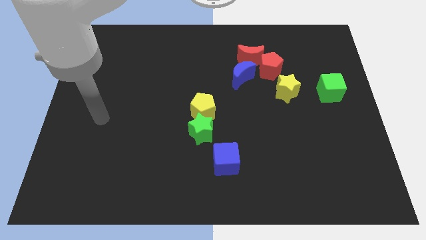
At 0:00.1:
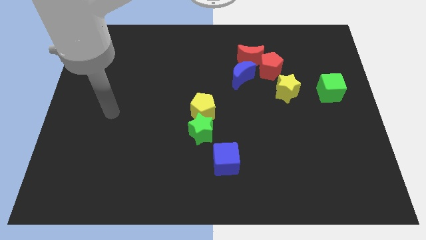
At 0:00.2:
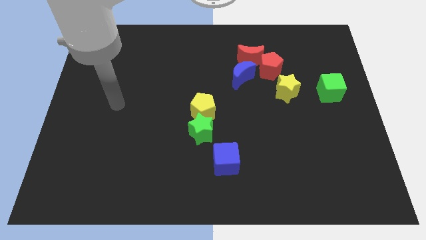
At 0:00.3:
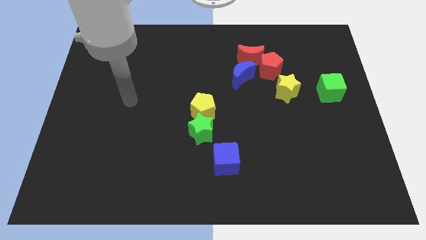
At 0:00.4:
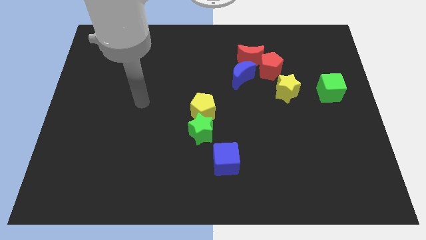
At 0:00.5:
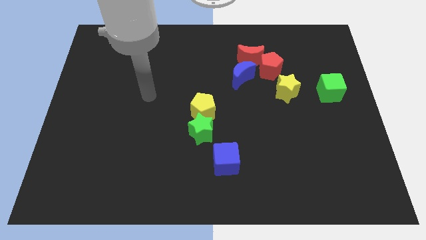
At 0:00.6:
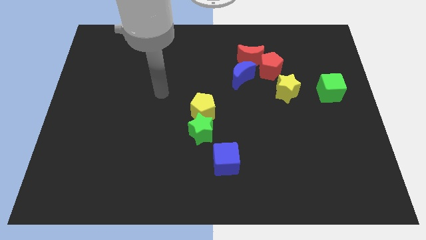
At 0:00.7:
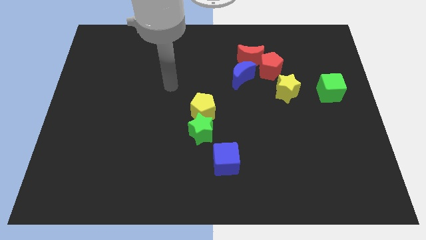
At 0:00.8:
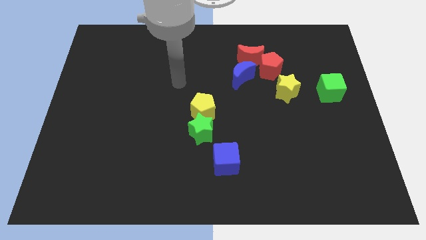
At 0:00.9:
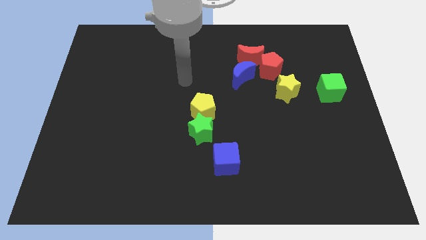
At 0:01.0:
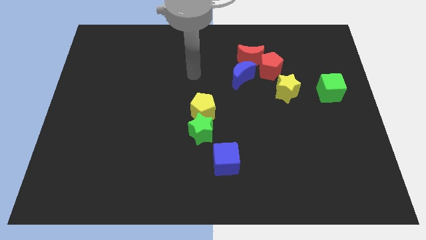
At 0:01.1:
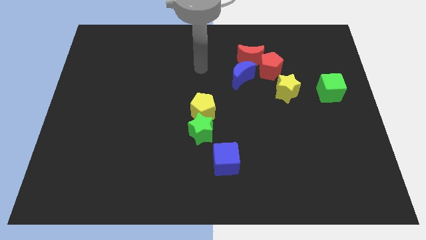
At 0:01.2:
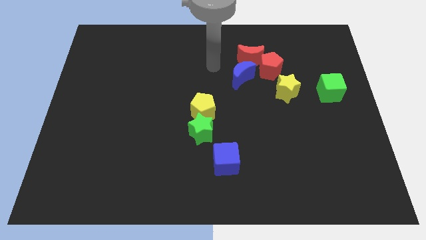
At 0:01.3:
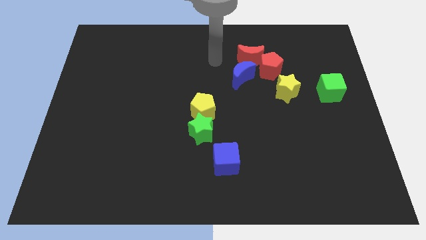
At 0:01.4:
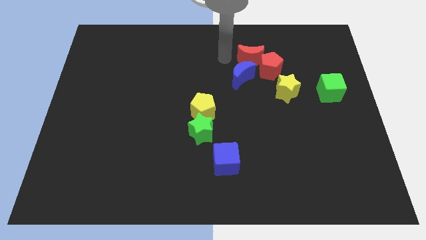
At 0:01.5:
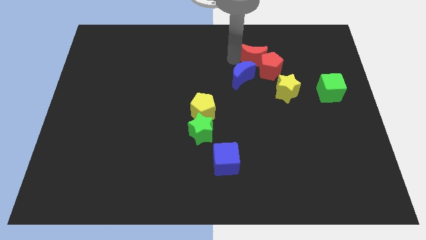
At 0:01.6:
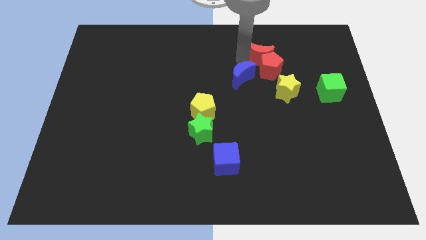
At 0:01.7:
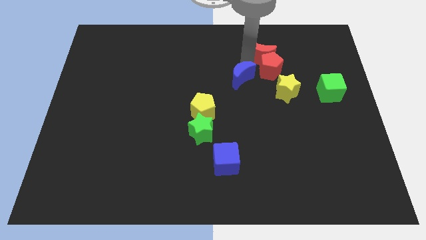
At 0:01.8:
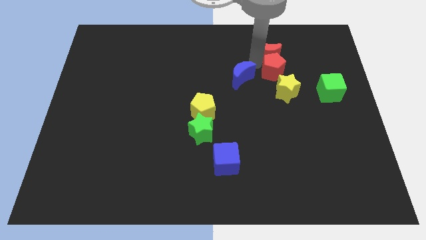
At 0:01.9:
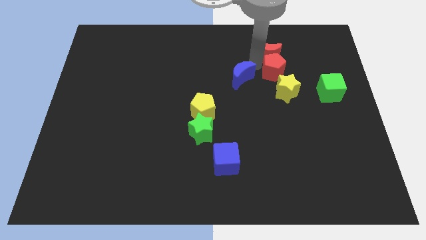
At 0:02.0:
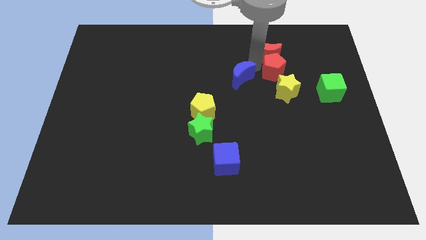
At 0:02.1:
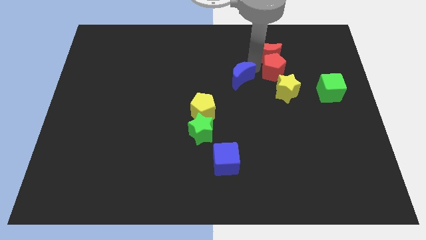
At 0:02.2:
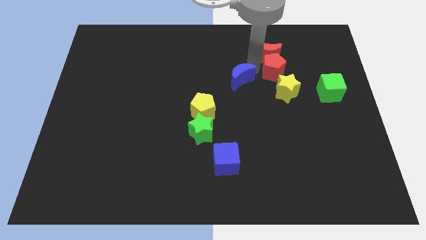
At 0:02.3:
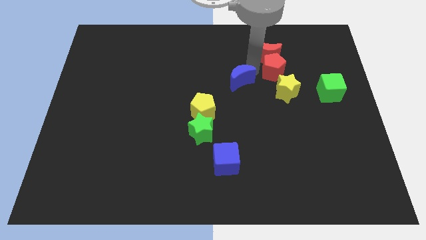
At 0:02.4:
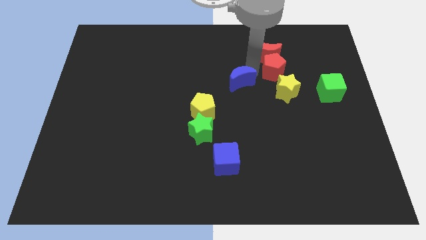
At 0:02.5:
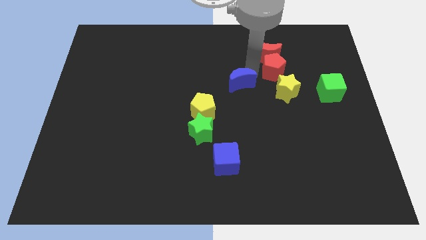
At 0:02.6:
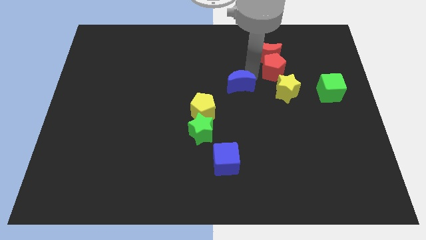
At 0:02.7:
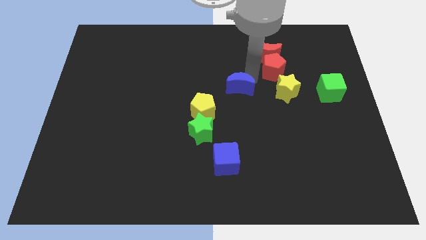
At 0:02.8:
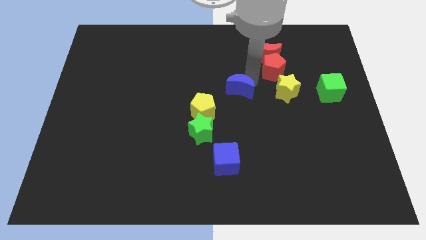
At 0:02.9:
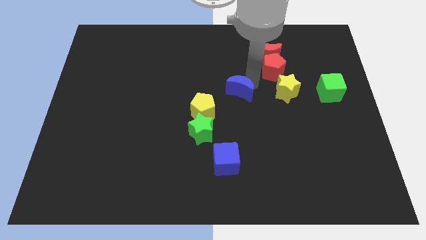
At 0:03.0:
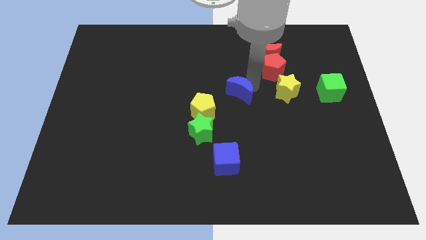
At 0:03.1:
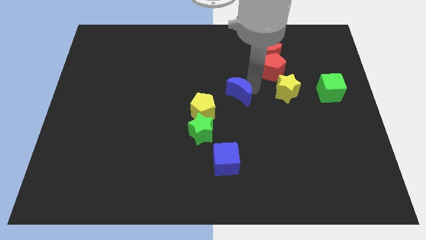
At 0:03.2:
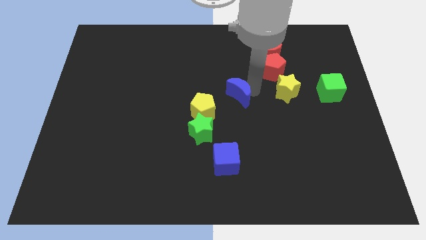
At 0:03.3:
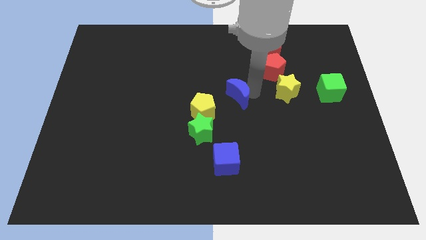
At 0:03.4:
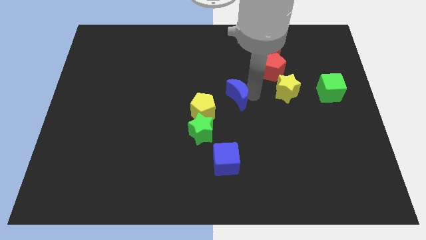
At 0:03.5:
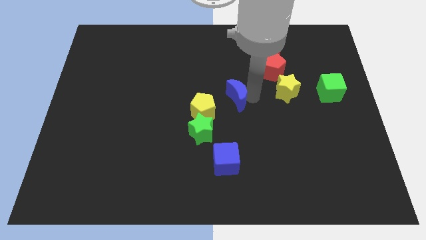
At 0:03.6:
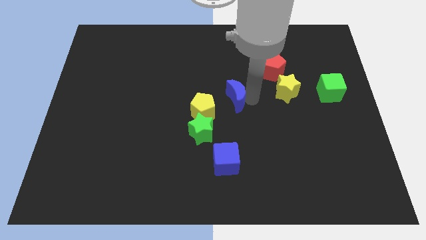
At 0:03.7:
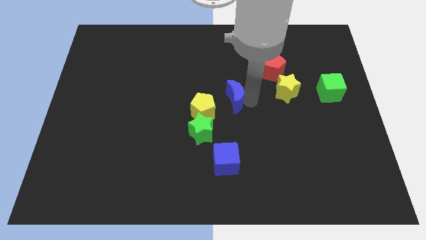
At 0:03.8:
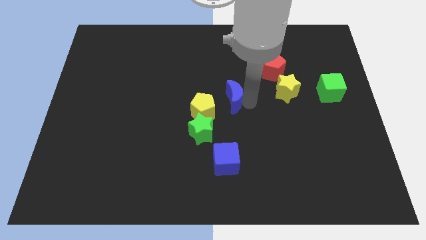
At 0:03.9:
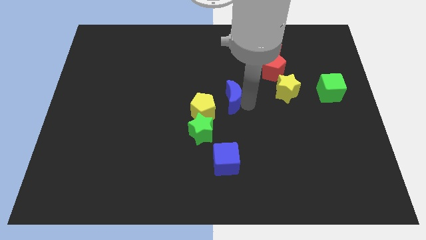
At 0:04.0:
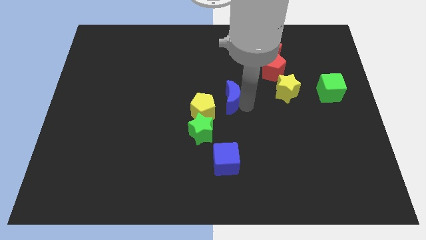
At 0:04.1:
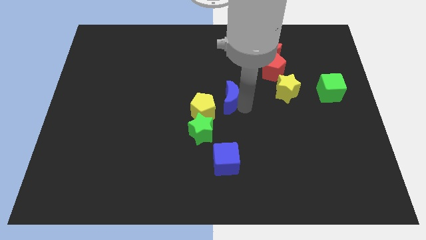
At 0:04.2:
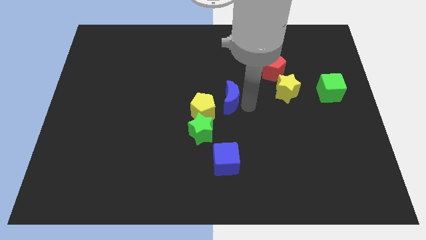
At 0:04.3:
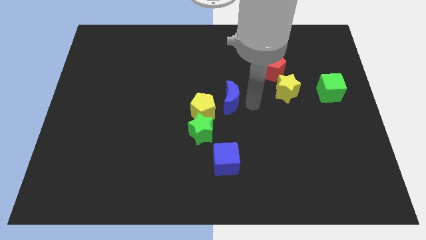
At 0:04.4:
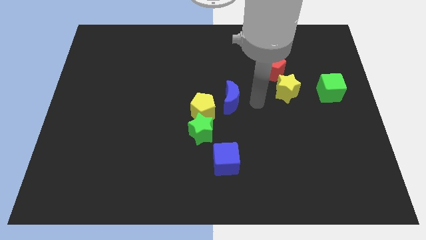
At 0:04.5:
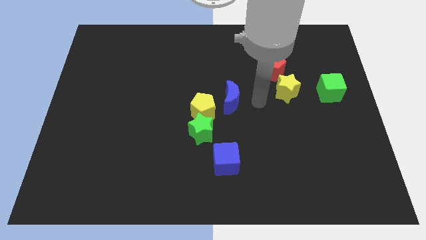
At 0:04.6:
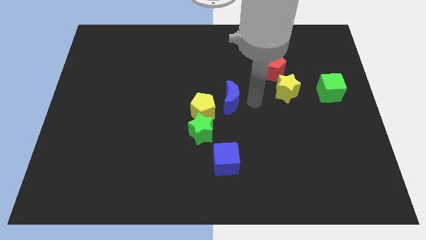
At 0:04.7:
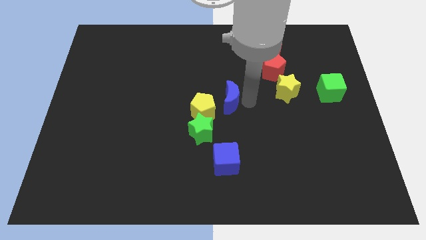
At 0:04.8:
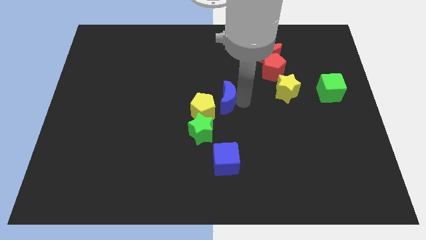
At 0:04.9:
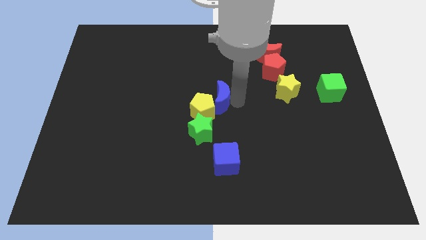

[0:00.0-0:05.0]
move the blue moon next to the yellow pentagon

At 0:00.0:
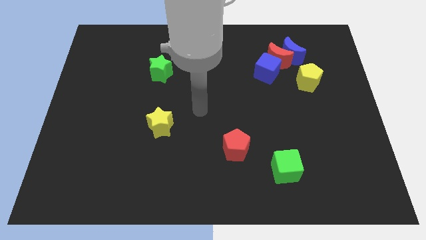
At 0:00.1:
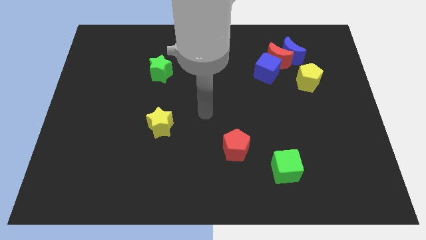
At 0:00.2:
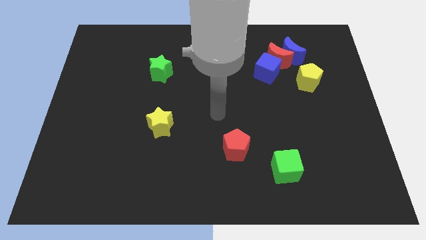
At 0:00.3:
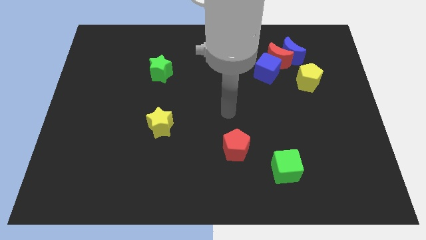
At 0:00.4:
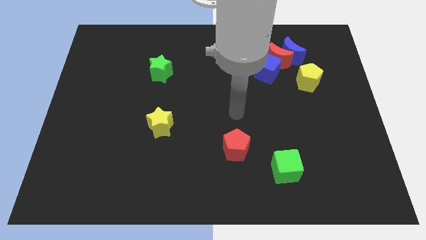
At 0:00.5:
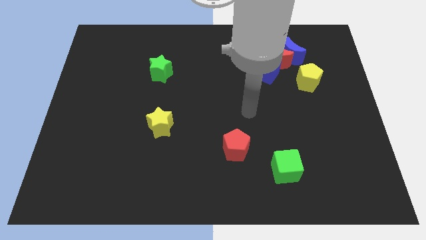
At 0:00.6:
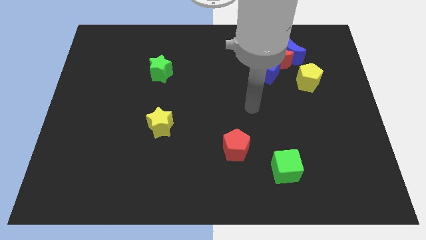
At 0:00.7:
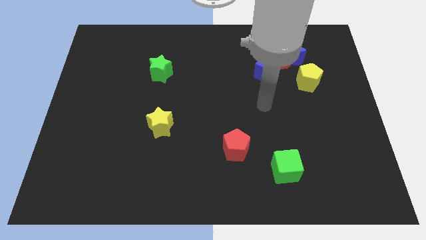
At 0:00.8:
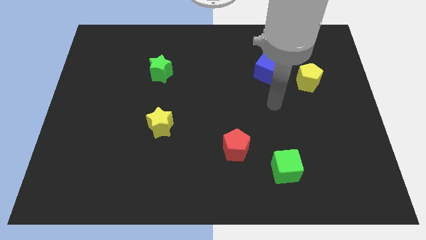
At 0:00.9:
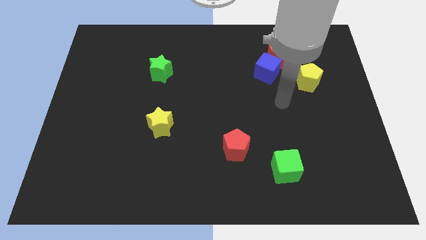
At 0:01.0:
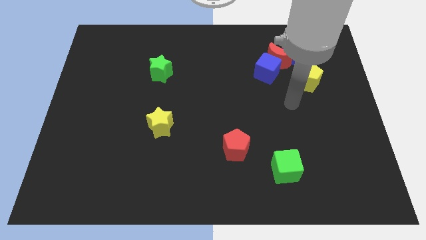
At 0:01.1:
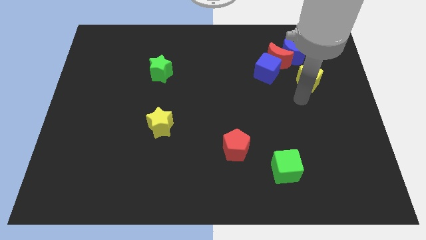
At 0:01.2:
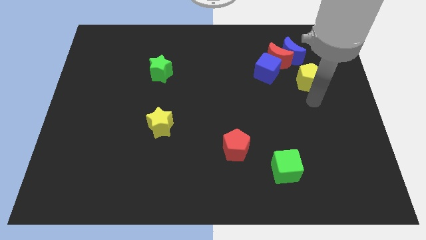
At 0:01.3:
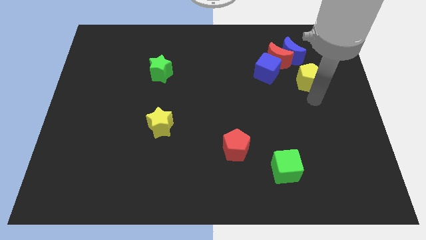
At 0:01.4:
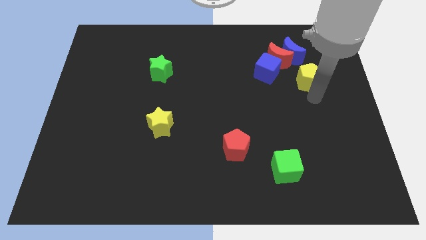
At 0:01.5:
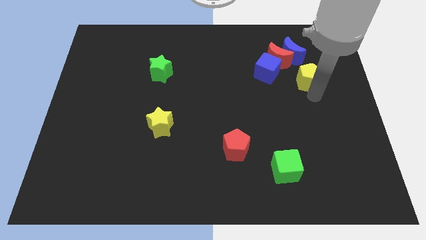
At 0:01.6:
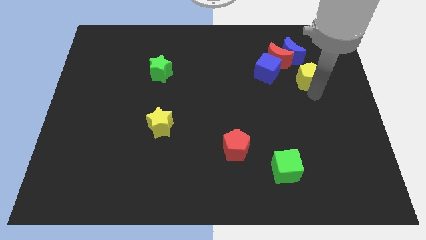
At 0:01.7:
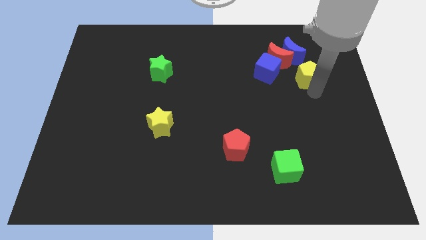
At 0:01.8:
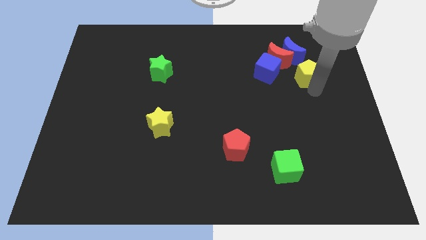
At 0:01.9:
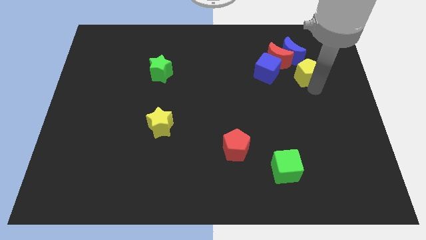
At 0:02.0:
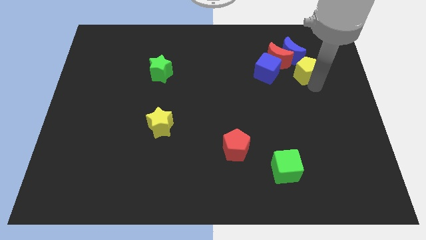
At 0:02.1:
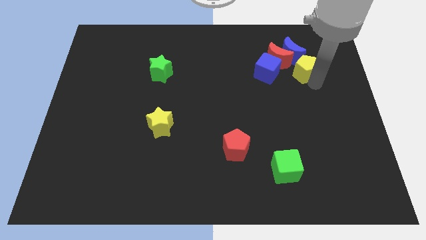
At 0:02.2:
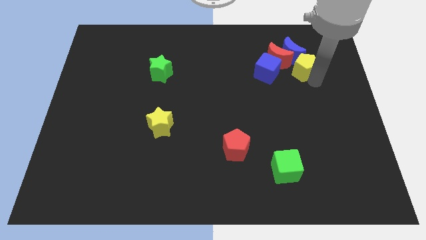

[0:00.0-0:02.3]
push the yellow pentagon towards the blue moon

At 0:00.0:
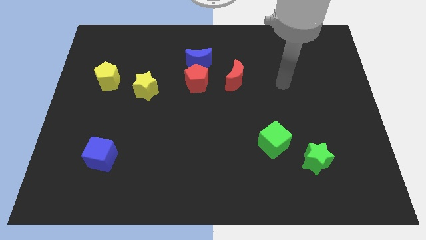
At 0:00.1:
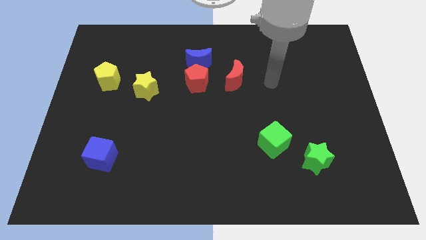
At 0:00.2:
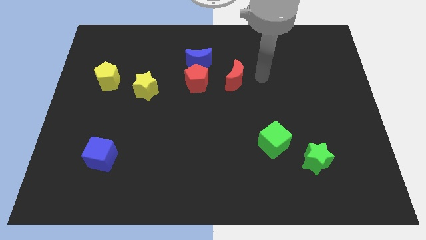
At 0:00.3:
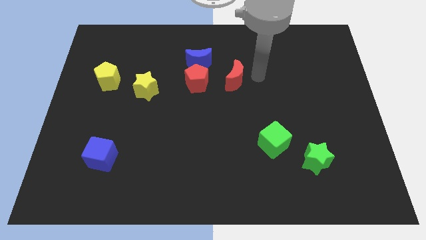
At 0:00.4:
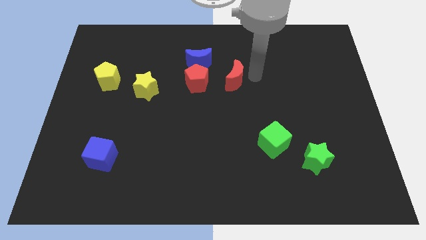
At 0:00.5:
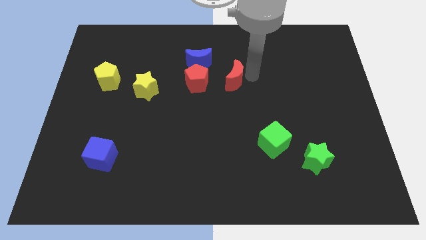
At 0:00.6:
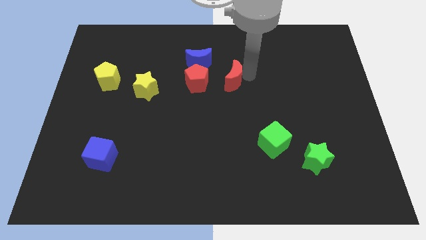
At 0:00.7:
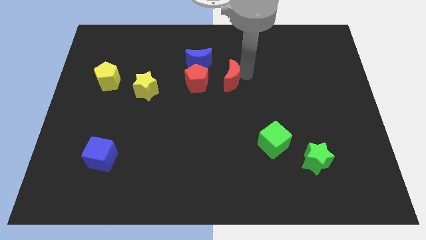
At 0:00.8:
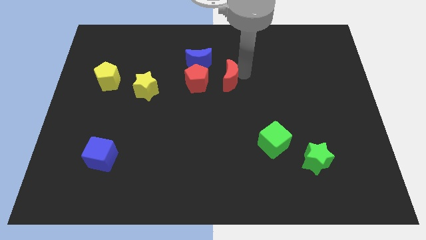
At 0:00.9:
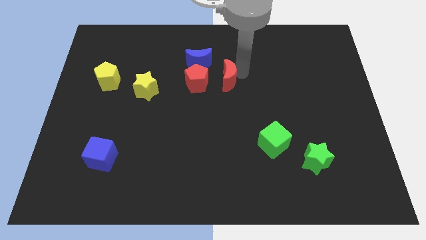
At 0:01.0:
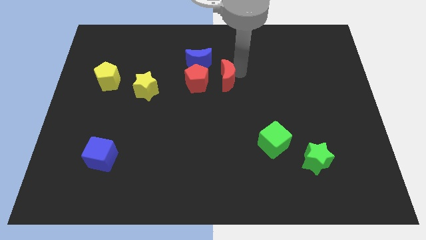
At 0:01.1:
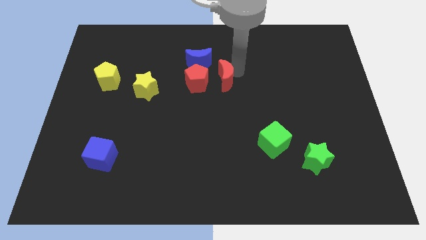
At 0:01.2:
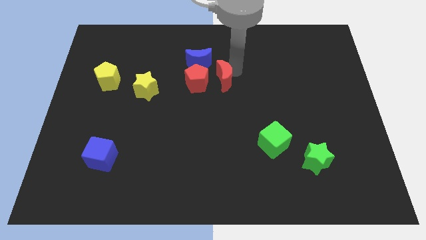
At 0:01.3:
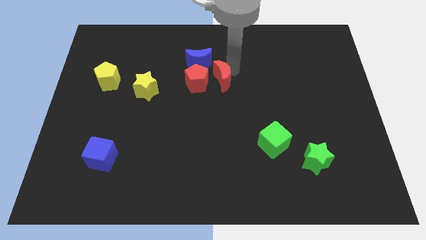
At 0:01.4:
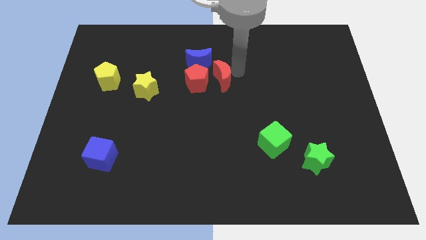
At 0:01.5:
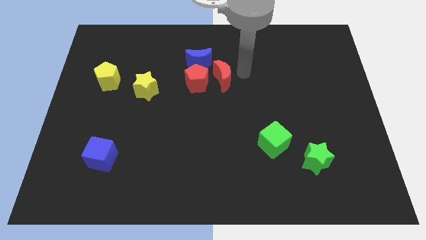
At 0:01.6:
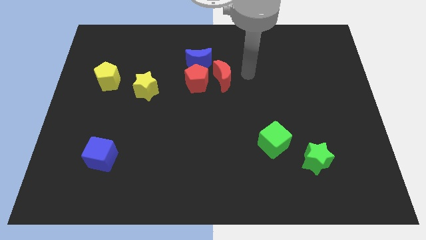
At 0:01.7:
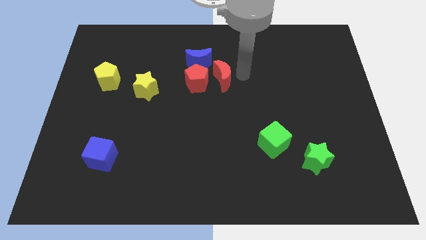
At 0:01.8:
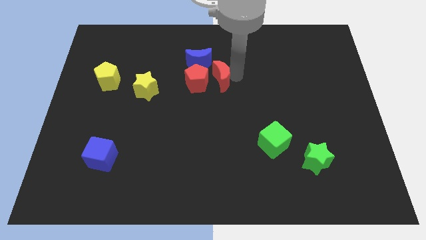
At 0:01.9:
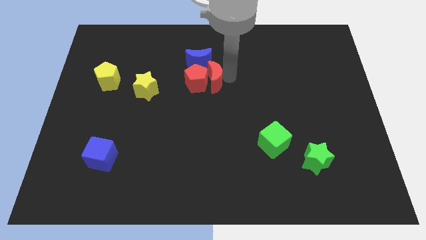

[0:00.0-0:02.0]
put the red moon towards the red pentagon
